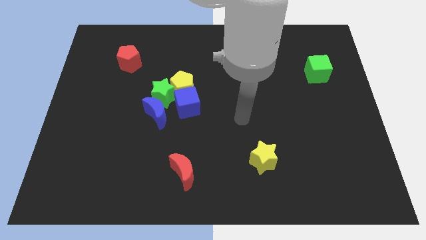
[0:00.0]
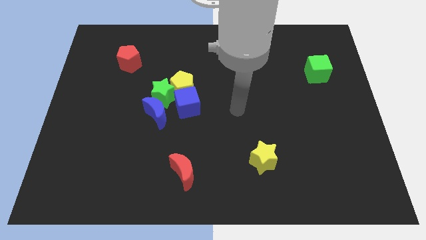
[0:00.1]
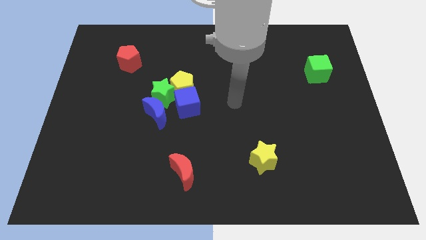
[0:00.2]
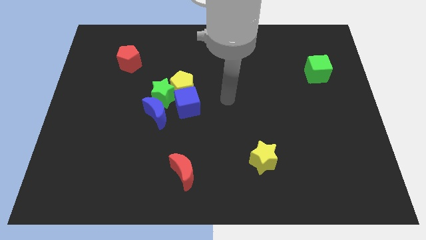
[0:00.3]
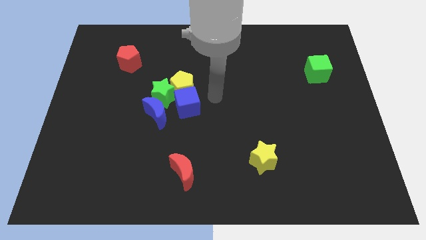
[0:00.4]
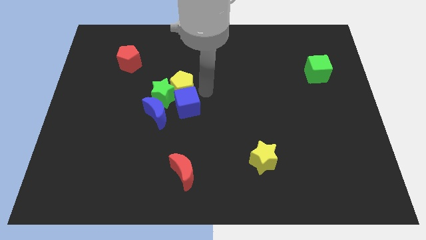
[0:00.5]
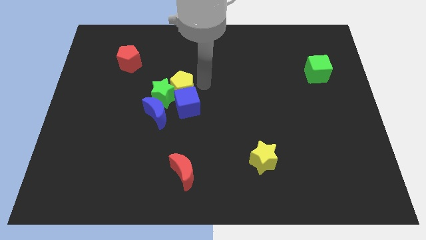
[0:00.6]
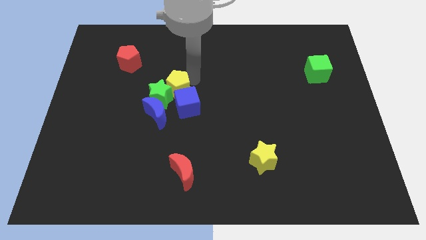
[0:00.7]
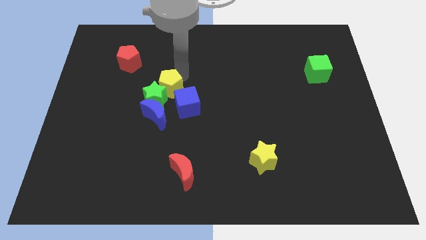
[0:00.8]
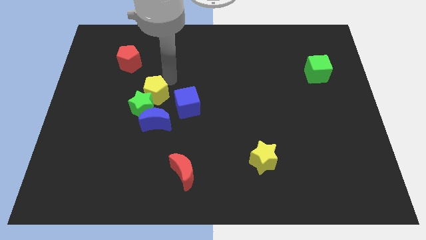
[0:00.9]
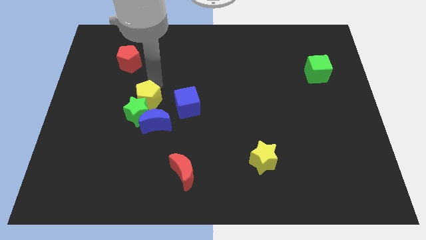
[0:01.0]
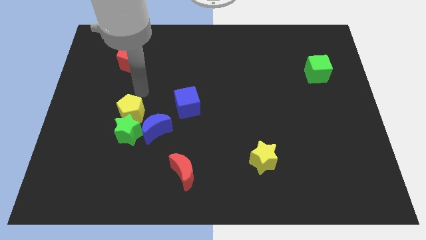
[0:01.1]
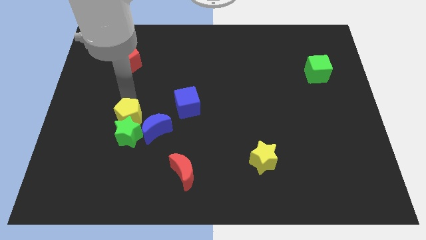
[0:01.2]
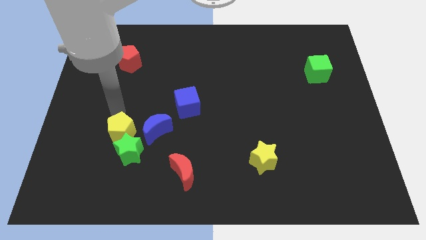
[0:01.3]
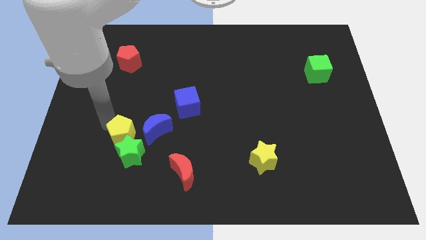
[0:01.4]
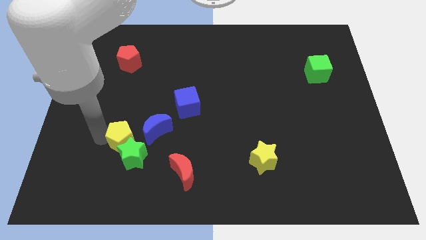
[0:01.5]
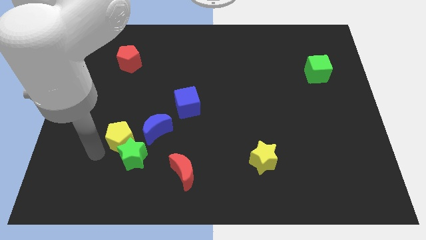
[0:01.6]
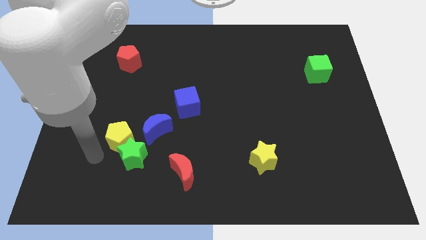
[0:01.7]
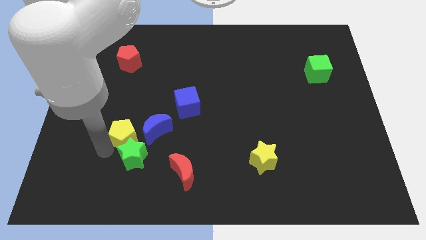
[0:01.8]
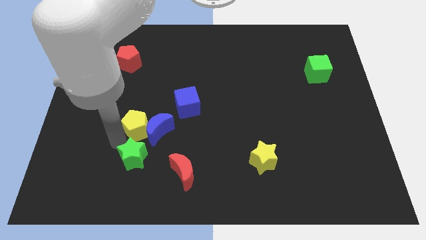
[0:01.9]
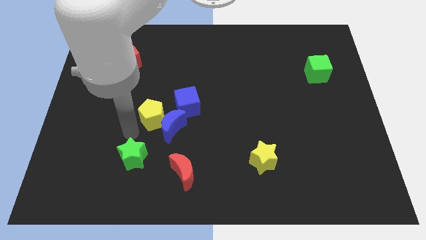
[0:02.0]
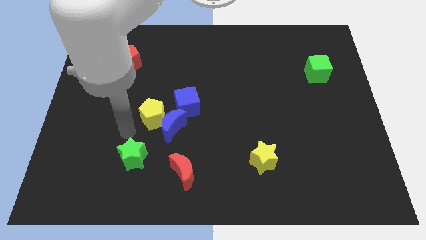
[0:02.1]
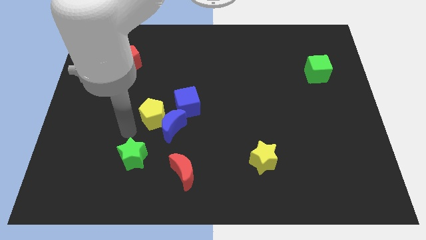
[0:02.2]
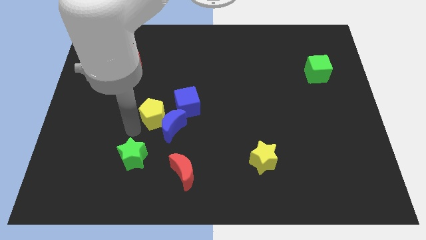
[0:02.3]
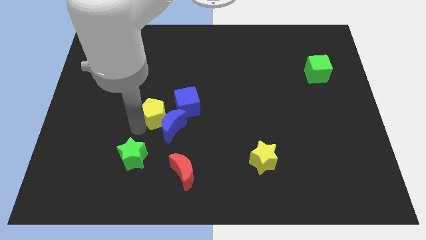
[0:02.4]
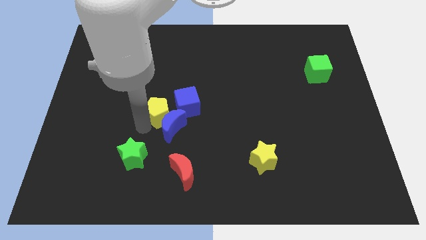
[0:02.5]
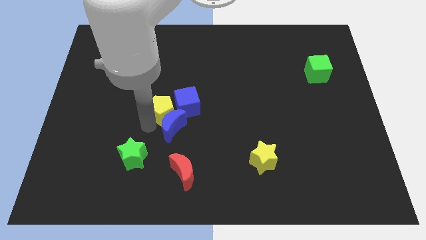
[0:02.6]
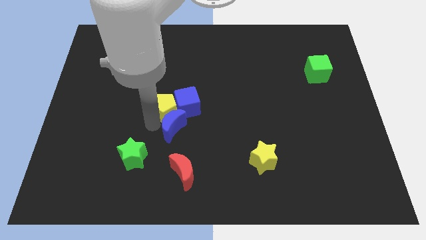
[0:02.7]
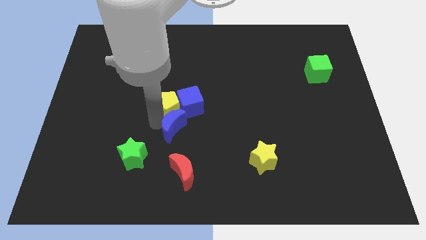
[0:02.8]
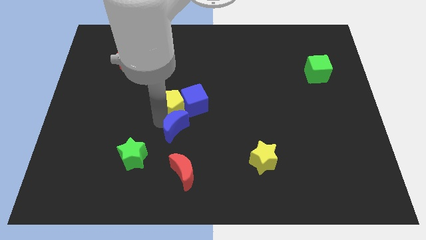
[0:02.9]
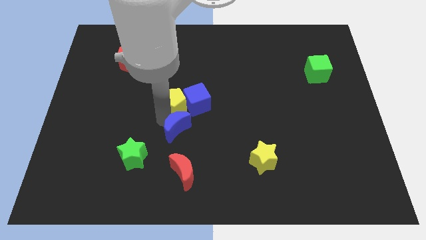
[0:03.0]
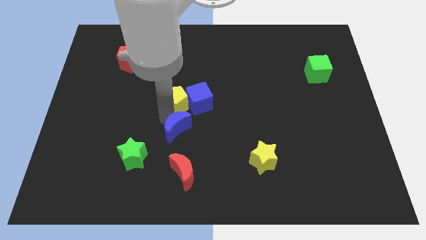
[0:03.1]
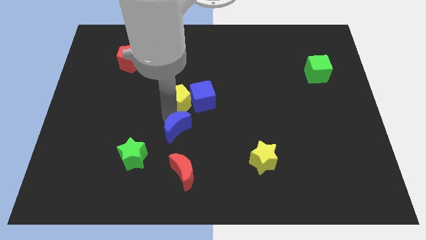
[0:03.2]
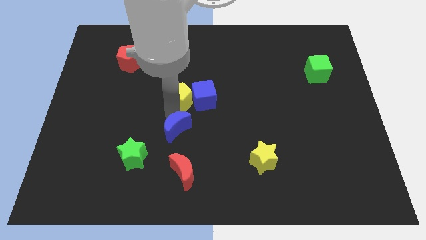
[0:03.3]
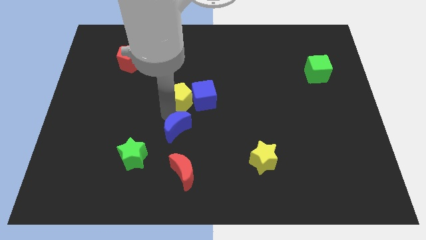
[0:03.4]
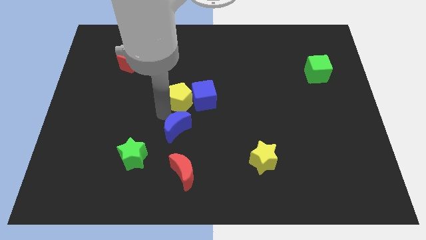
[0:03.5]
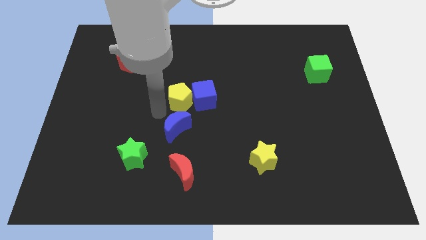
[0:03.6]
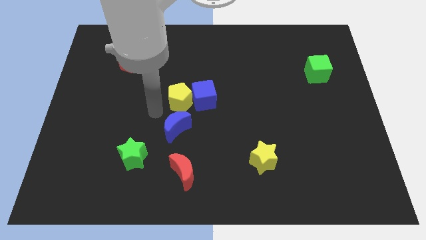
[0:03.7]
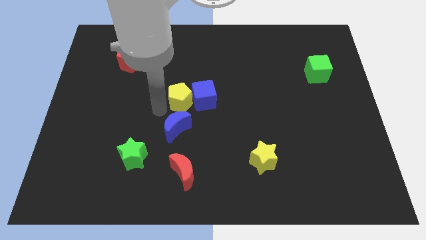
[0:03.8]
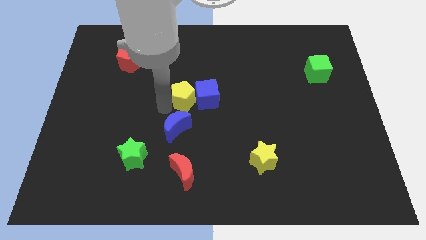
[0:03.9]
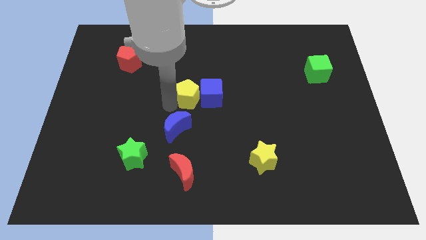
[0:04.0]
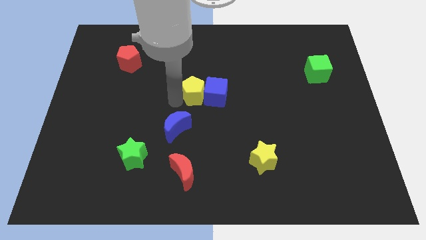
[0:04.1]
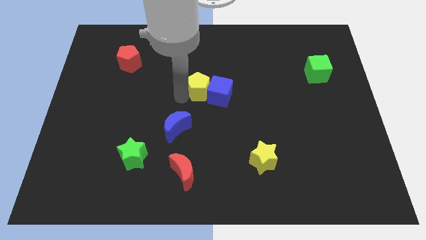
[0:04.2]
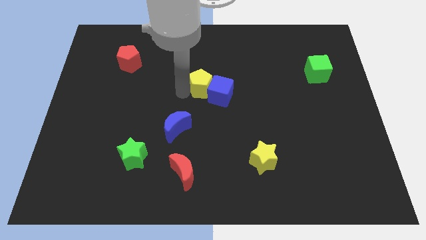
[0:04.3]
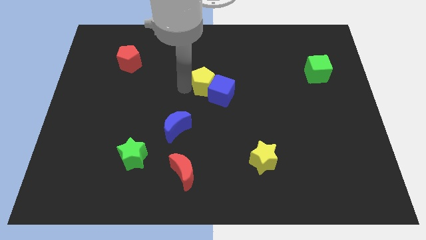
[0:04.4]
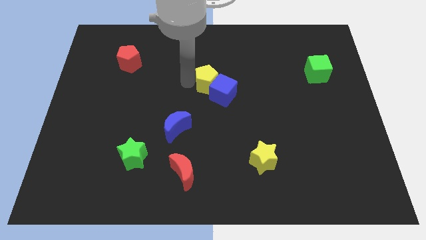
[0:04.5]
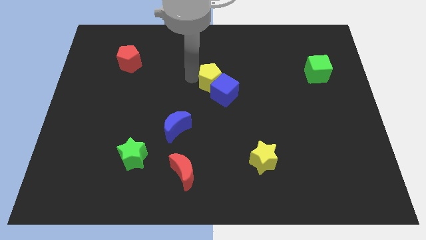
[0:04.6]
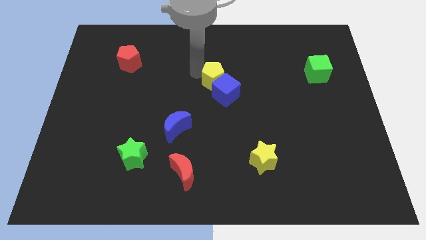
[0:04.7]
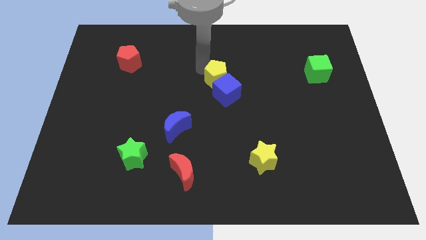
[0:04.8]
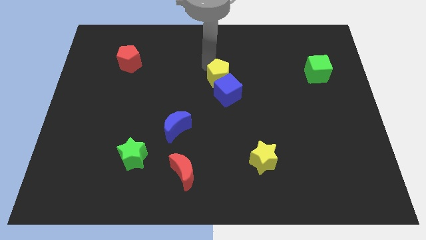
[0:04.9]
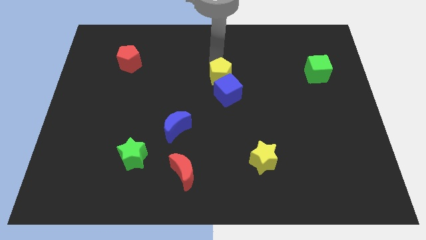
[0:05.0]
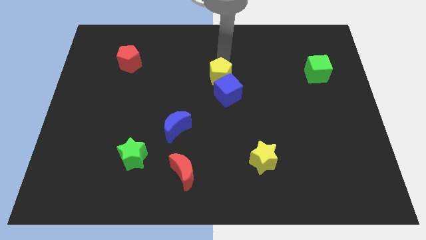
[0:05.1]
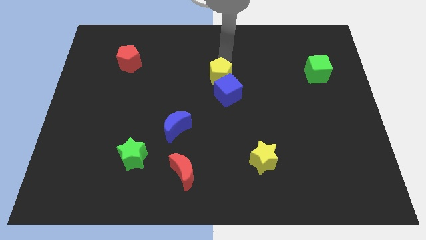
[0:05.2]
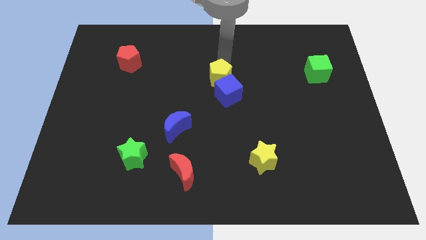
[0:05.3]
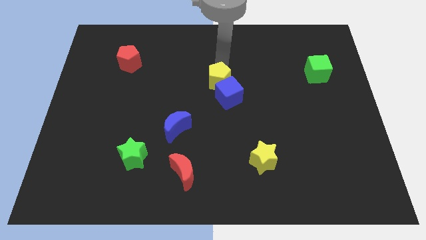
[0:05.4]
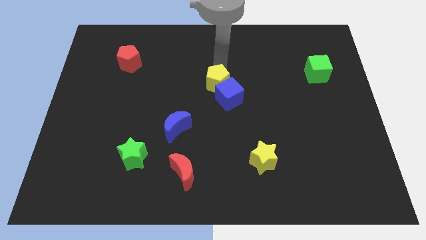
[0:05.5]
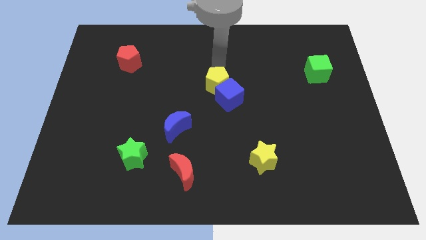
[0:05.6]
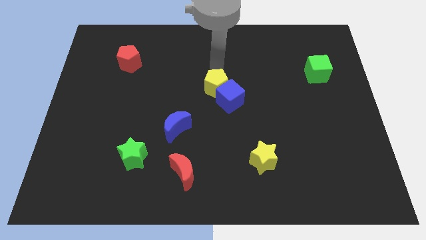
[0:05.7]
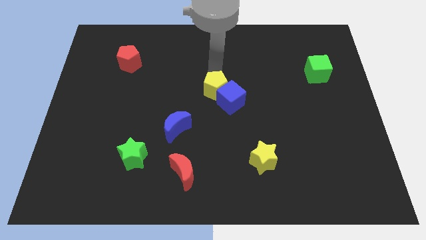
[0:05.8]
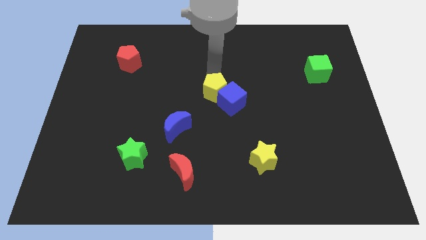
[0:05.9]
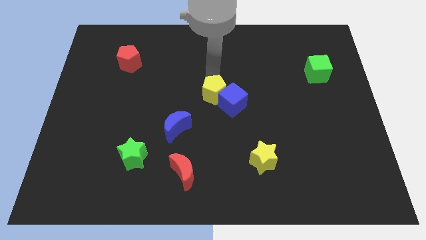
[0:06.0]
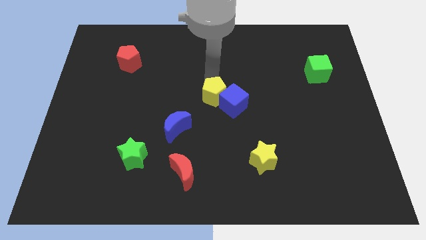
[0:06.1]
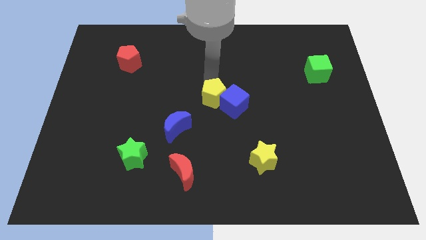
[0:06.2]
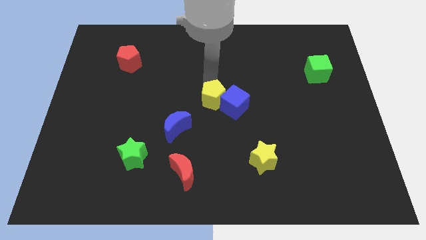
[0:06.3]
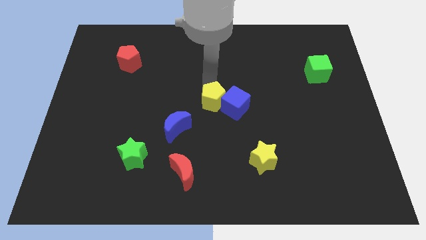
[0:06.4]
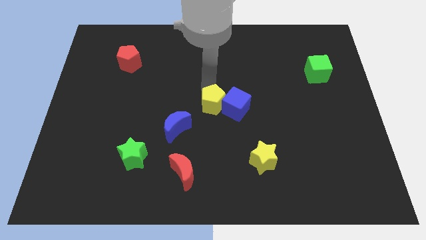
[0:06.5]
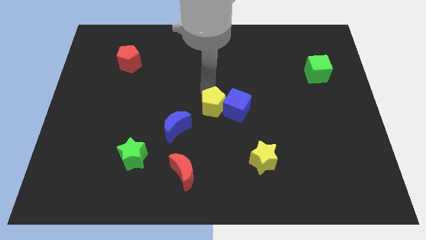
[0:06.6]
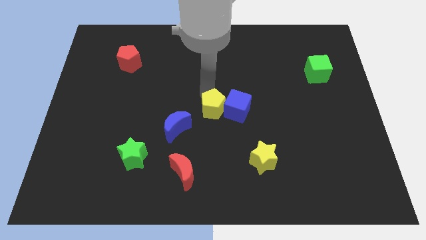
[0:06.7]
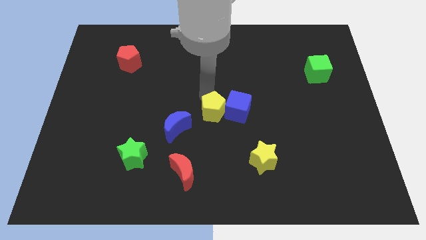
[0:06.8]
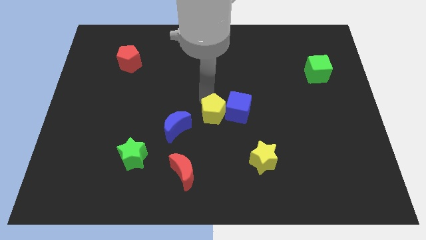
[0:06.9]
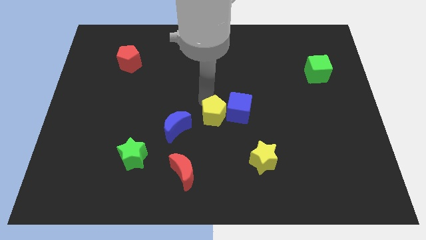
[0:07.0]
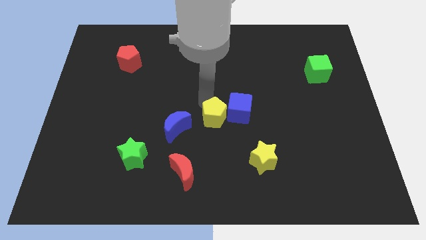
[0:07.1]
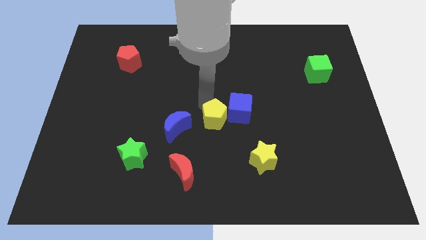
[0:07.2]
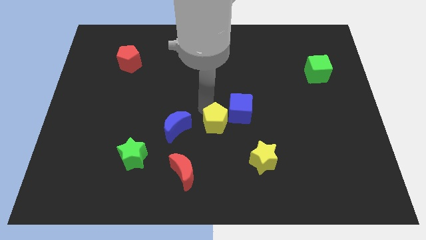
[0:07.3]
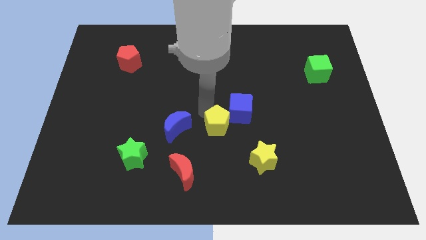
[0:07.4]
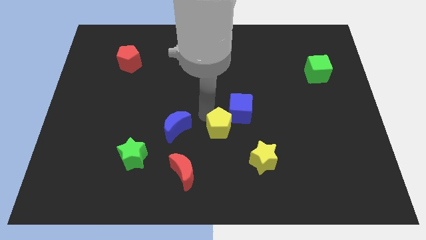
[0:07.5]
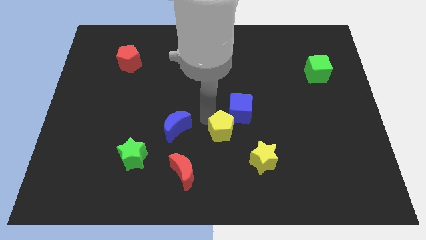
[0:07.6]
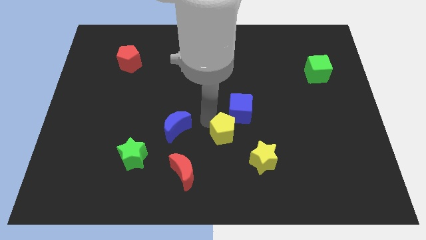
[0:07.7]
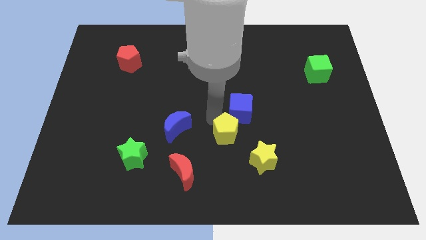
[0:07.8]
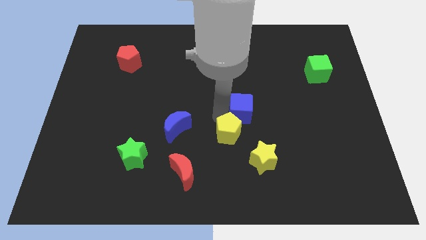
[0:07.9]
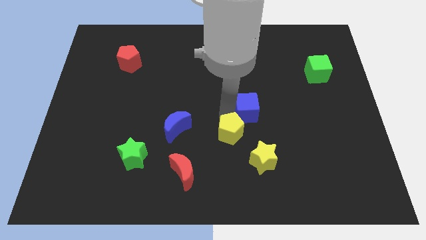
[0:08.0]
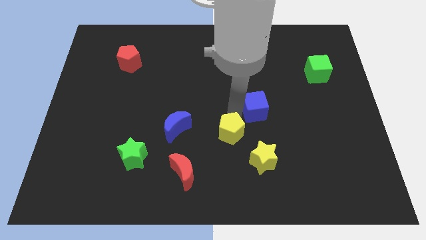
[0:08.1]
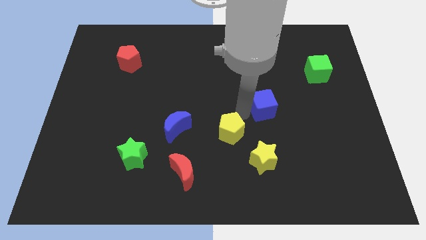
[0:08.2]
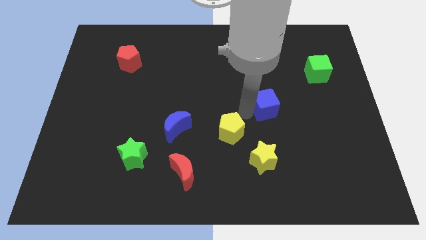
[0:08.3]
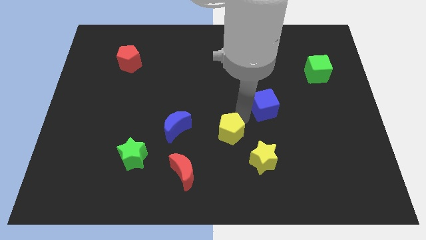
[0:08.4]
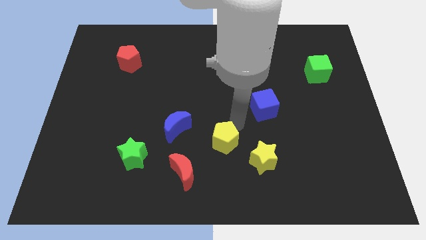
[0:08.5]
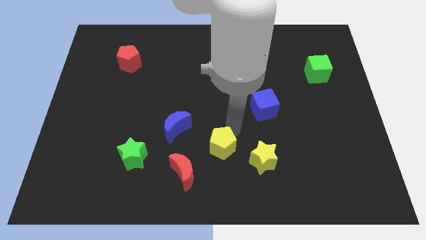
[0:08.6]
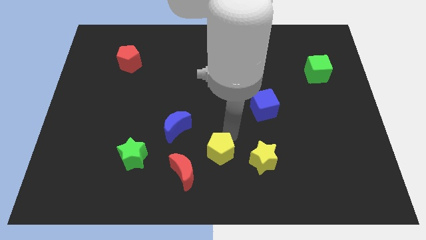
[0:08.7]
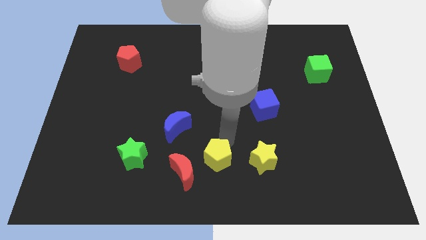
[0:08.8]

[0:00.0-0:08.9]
move the yellow pentagon to the bottom side
